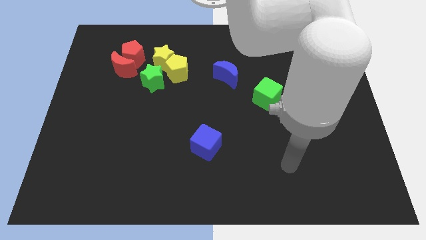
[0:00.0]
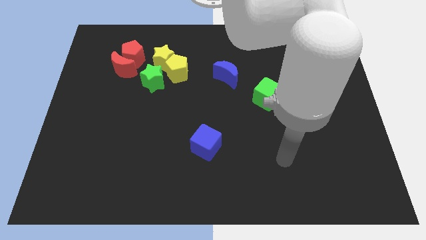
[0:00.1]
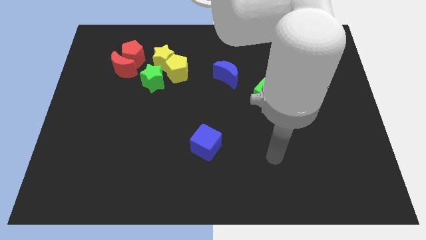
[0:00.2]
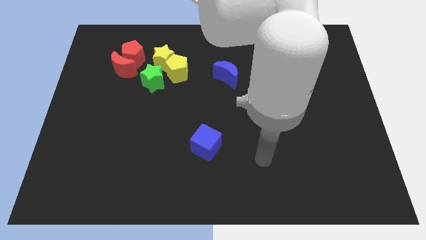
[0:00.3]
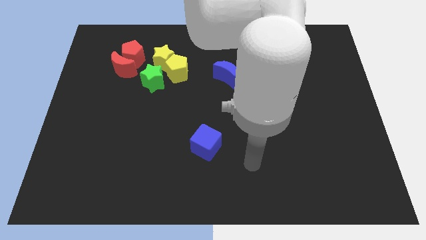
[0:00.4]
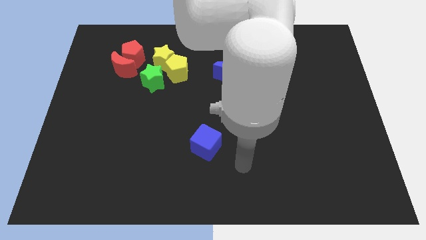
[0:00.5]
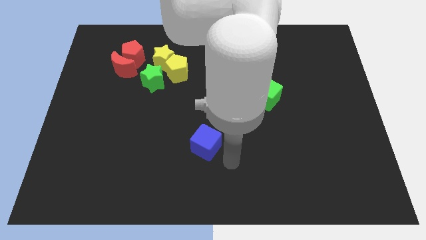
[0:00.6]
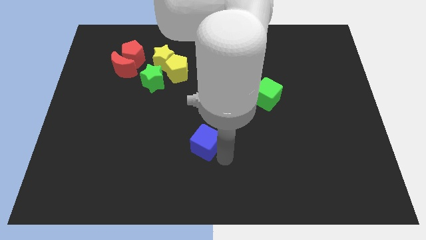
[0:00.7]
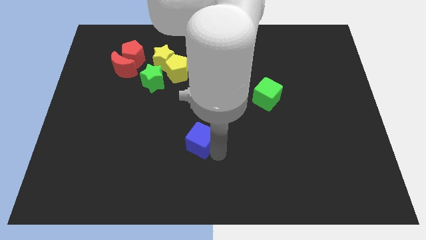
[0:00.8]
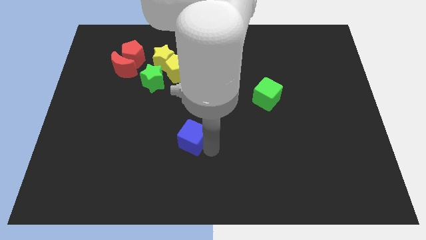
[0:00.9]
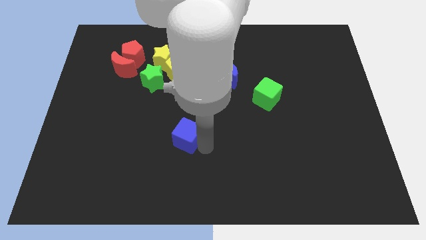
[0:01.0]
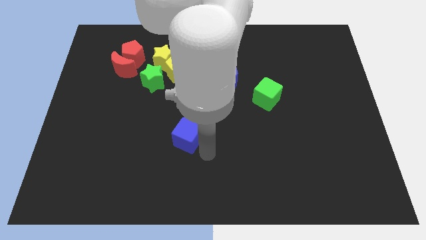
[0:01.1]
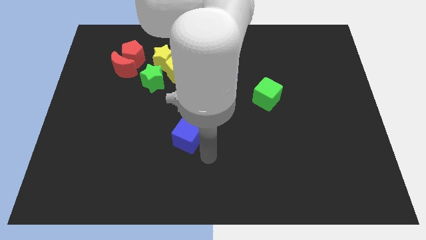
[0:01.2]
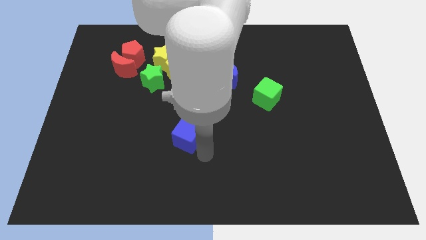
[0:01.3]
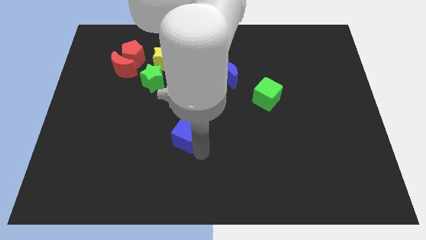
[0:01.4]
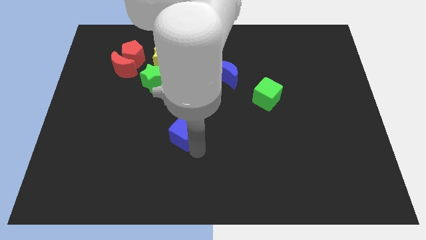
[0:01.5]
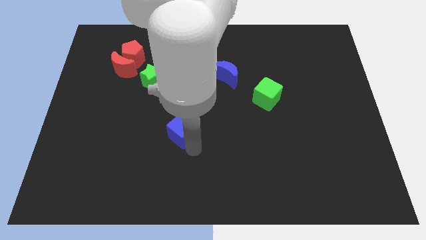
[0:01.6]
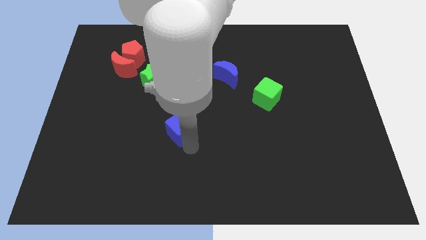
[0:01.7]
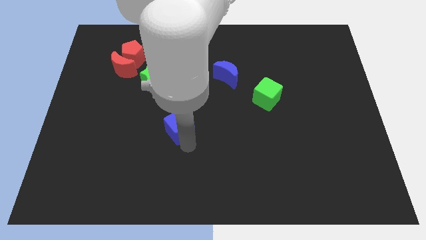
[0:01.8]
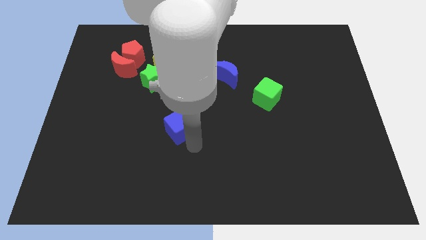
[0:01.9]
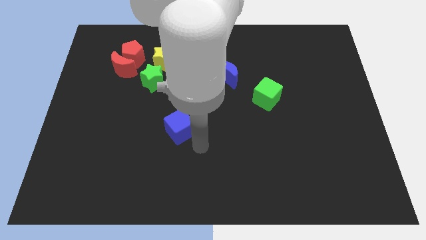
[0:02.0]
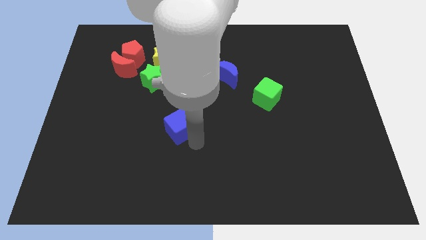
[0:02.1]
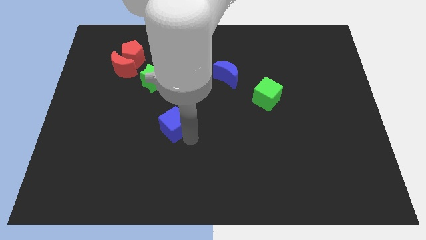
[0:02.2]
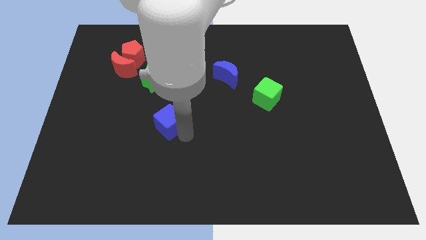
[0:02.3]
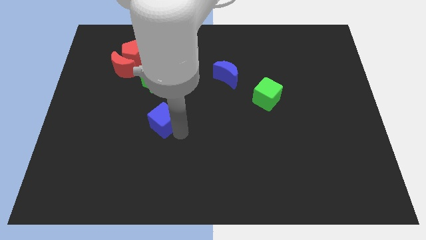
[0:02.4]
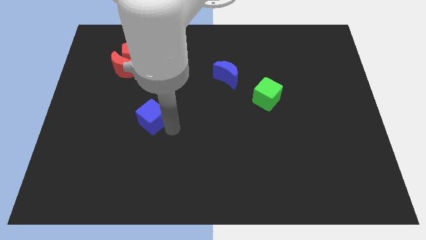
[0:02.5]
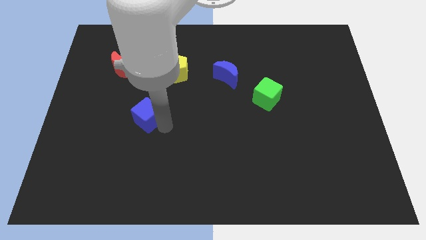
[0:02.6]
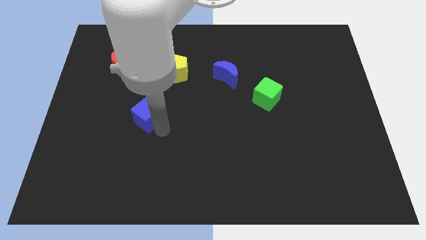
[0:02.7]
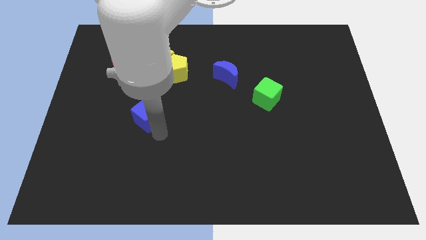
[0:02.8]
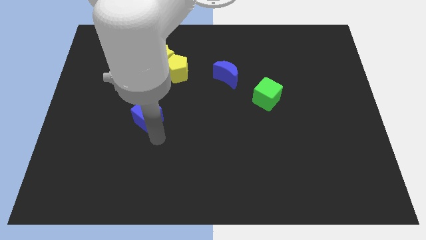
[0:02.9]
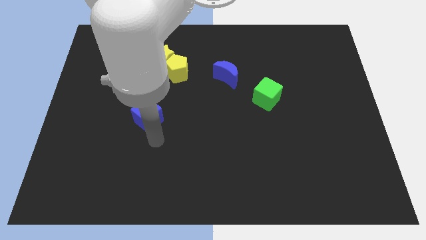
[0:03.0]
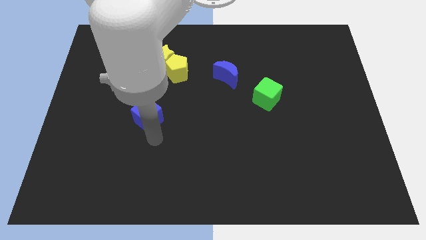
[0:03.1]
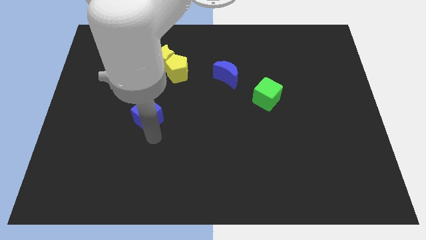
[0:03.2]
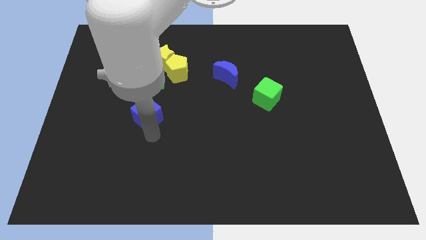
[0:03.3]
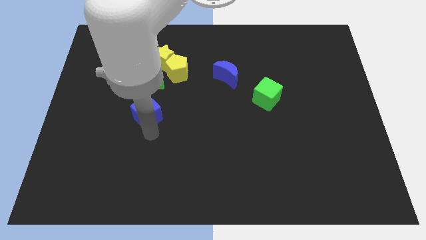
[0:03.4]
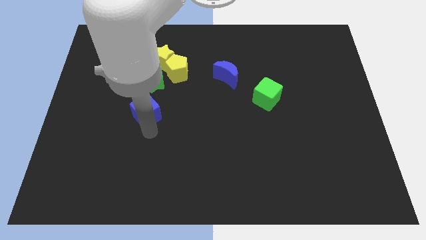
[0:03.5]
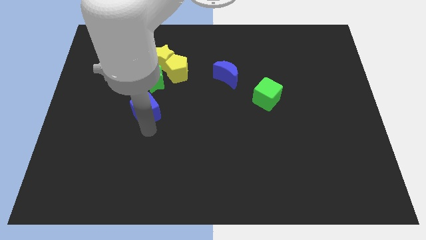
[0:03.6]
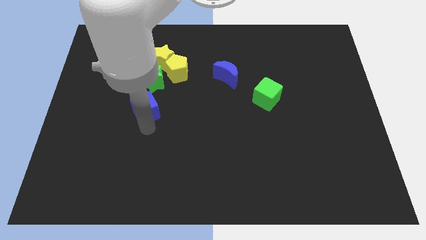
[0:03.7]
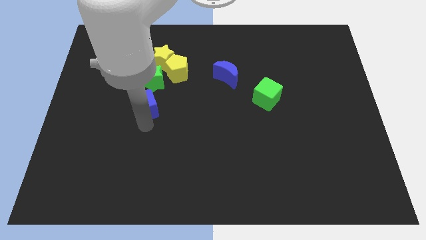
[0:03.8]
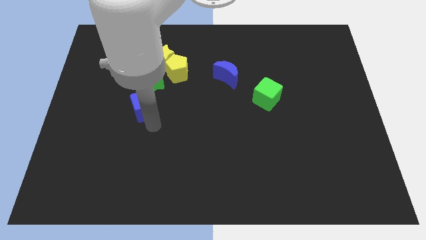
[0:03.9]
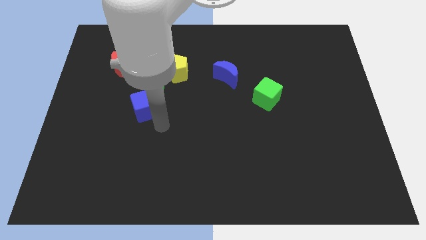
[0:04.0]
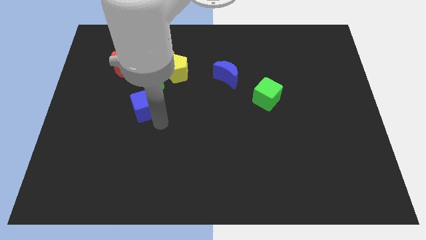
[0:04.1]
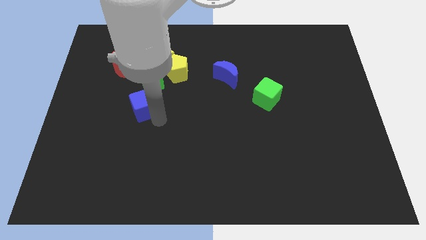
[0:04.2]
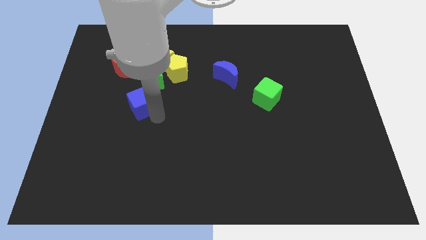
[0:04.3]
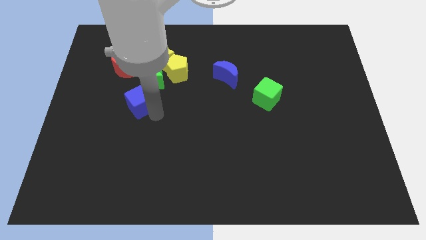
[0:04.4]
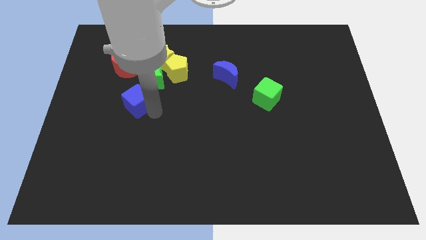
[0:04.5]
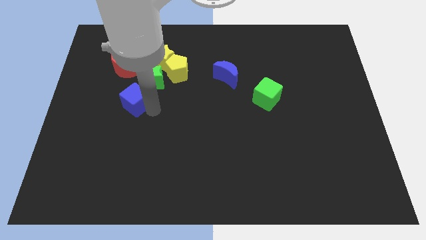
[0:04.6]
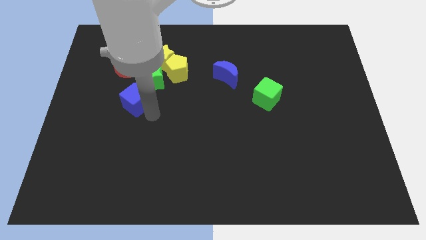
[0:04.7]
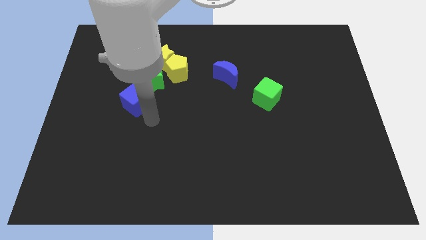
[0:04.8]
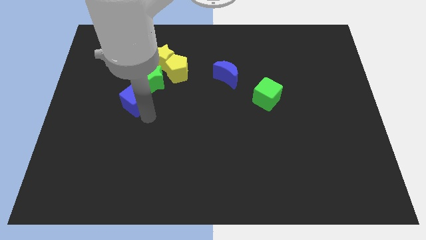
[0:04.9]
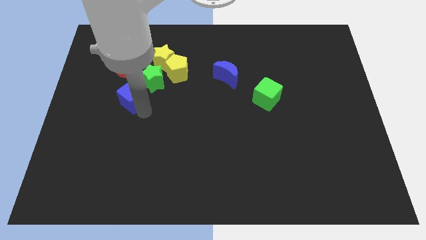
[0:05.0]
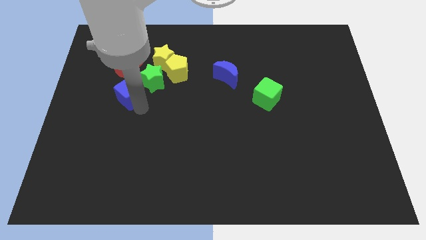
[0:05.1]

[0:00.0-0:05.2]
move the blue cube to the left of the green star

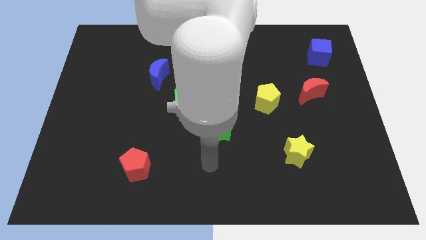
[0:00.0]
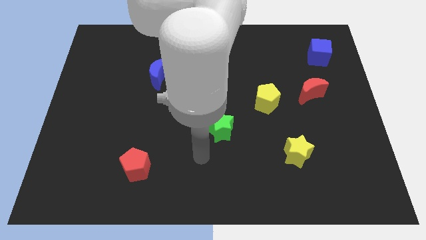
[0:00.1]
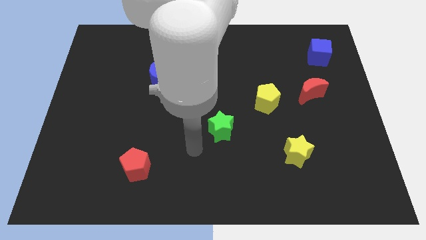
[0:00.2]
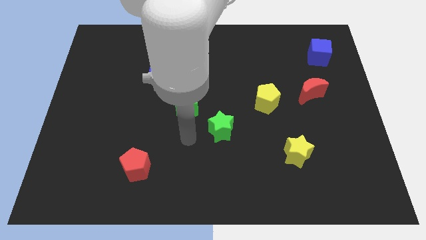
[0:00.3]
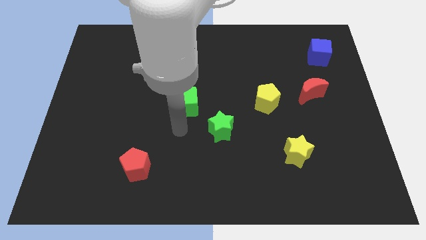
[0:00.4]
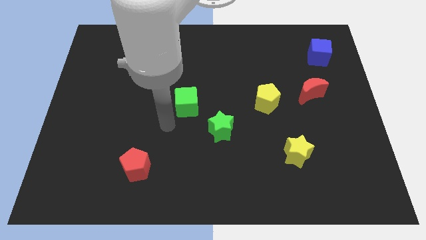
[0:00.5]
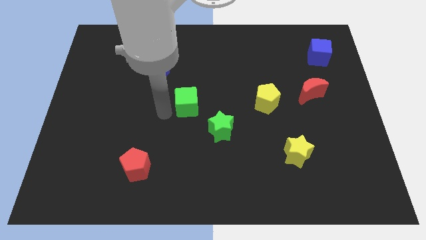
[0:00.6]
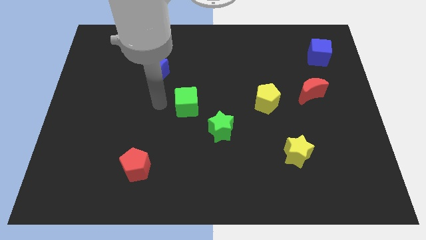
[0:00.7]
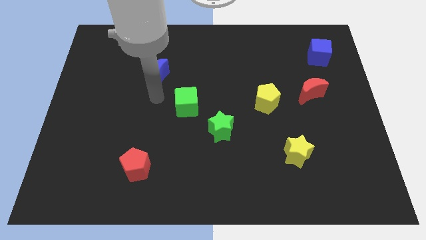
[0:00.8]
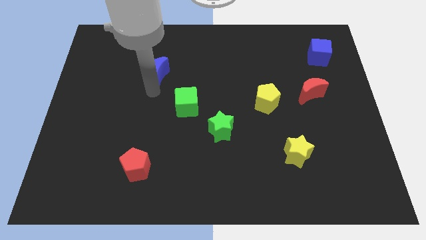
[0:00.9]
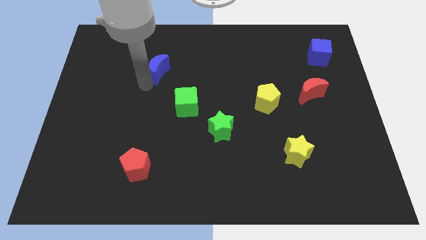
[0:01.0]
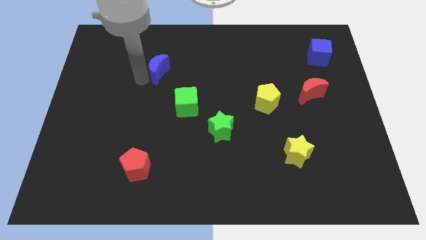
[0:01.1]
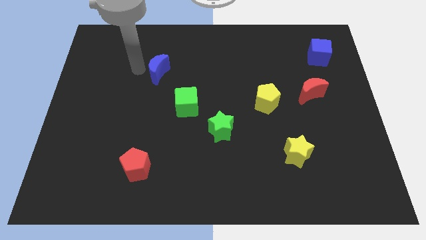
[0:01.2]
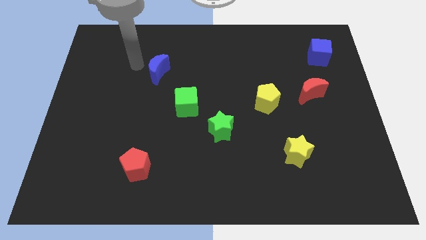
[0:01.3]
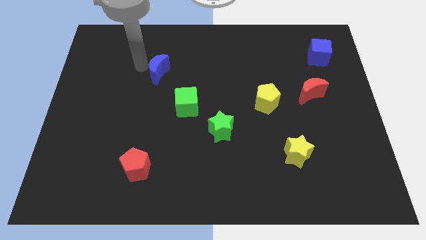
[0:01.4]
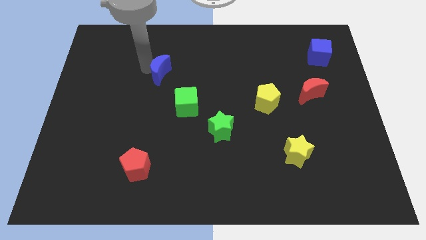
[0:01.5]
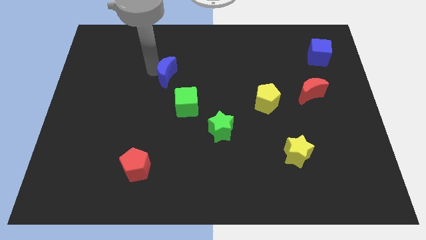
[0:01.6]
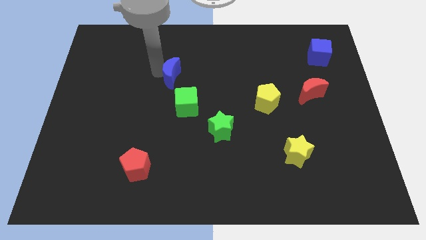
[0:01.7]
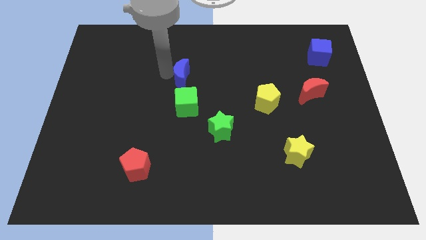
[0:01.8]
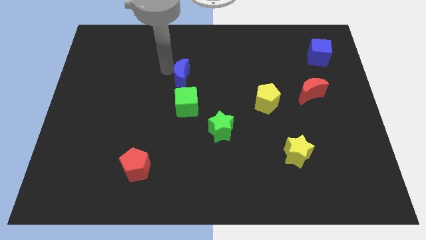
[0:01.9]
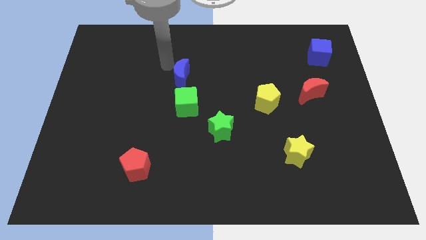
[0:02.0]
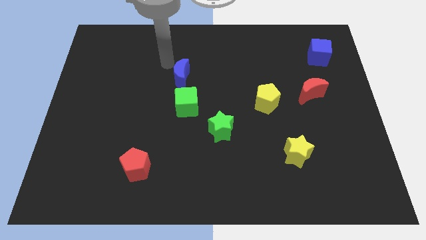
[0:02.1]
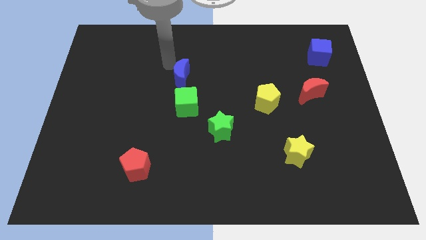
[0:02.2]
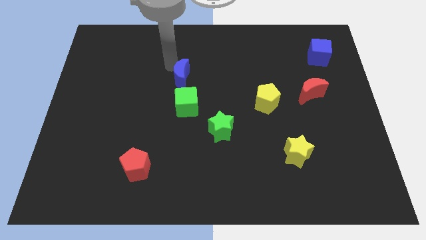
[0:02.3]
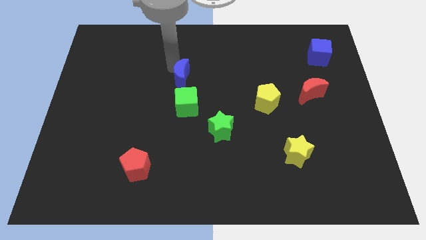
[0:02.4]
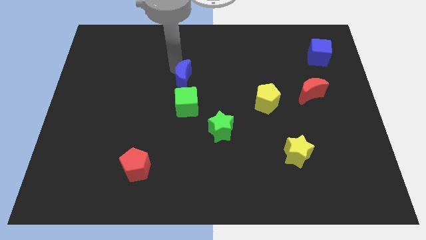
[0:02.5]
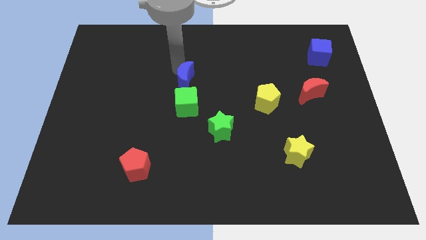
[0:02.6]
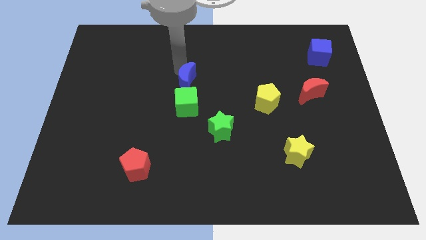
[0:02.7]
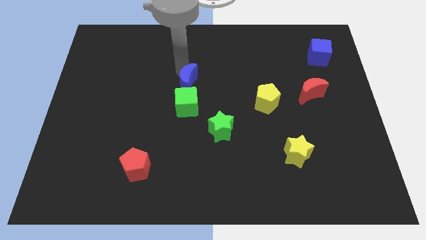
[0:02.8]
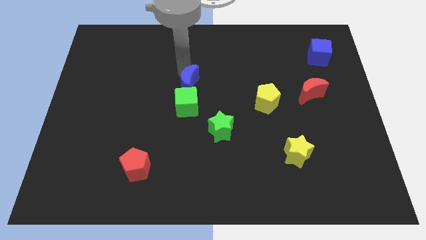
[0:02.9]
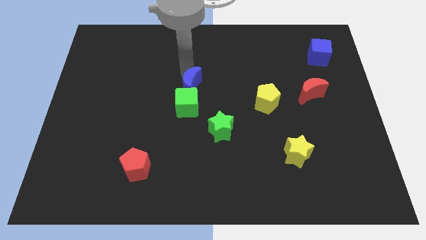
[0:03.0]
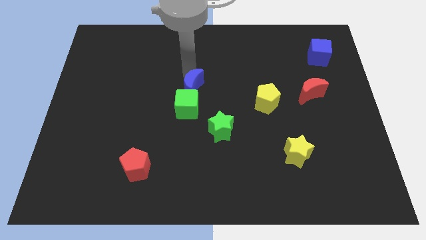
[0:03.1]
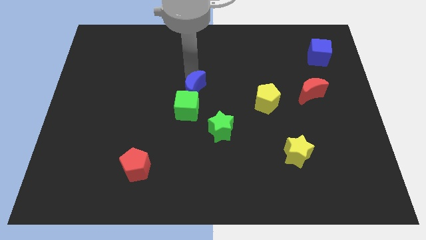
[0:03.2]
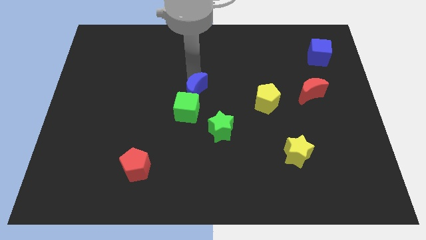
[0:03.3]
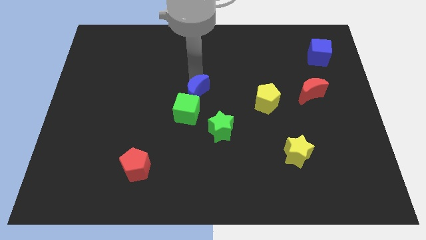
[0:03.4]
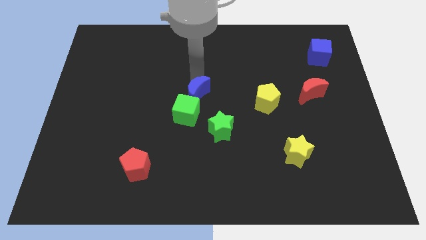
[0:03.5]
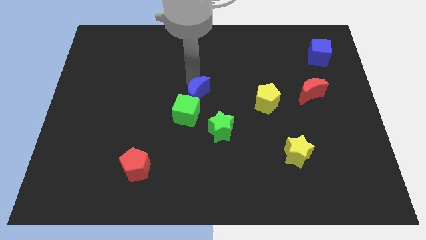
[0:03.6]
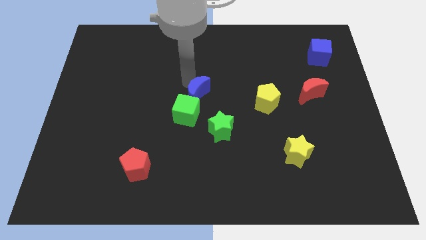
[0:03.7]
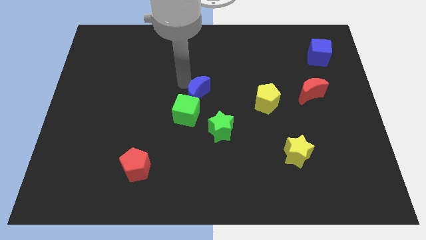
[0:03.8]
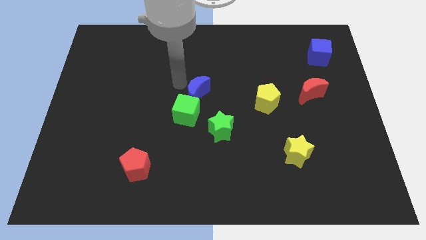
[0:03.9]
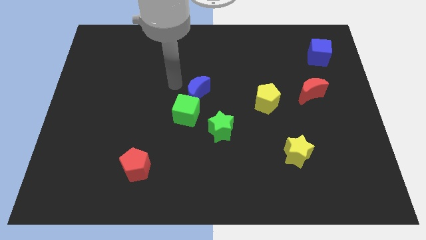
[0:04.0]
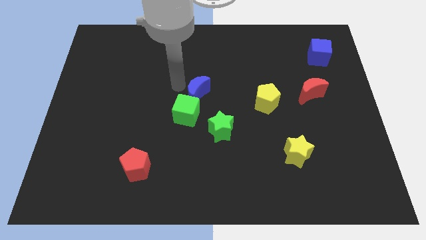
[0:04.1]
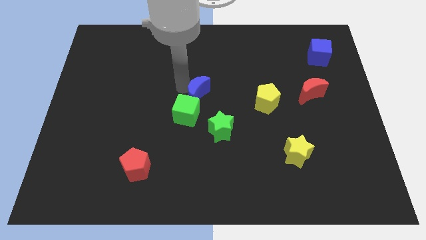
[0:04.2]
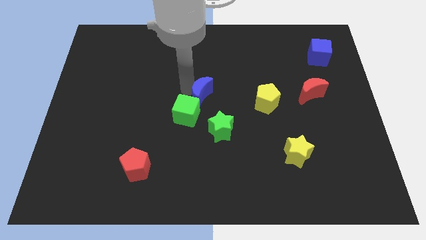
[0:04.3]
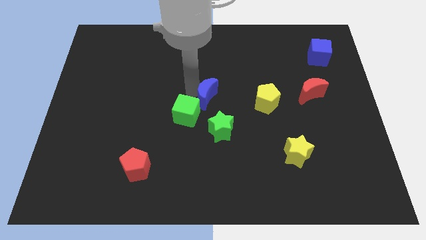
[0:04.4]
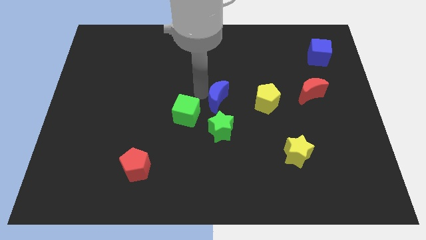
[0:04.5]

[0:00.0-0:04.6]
push the blue moon to the right of the green cube
